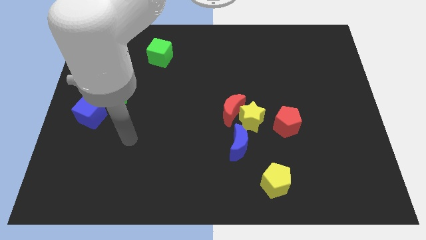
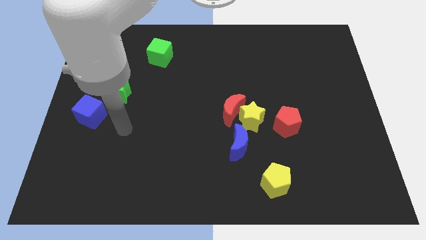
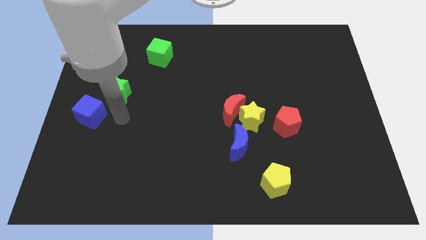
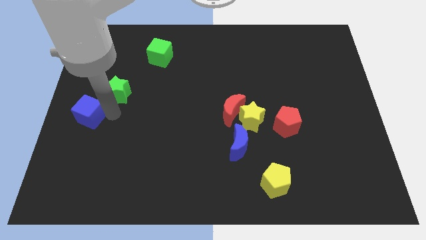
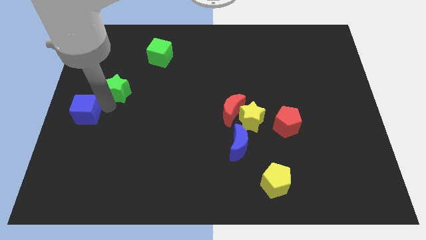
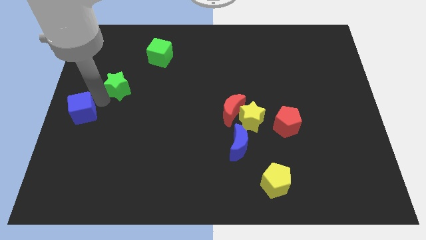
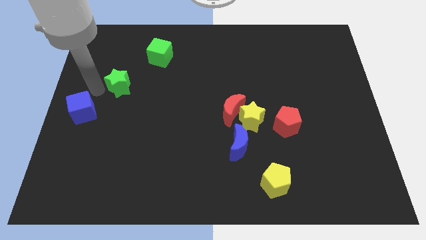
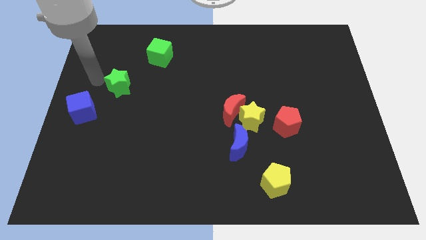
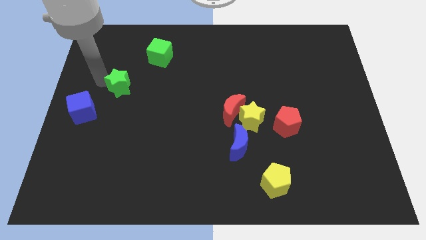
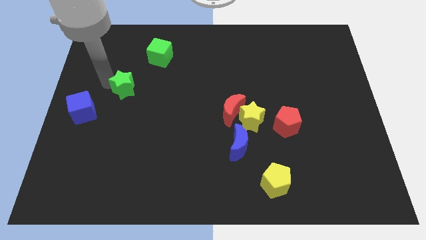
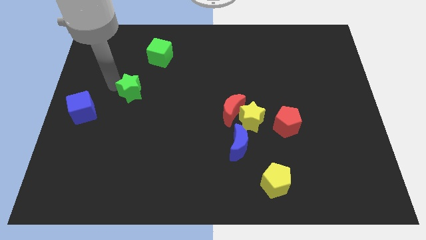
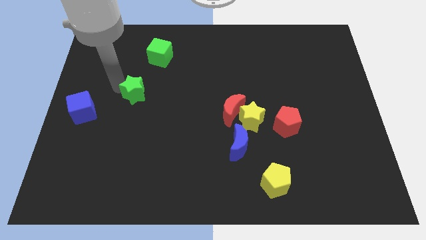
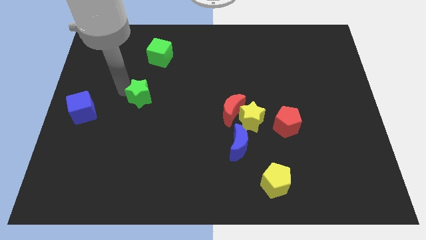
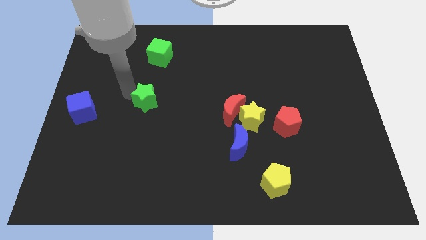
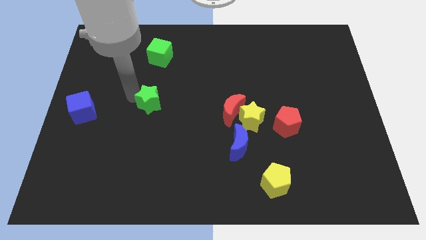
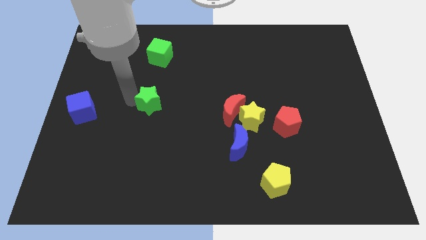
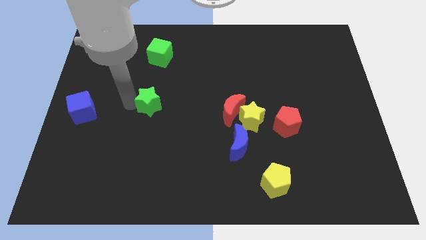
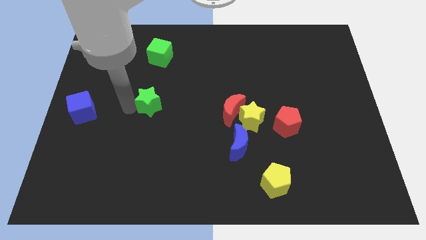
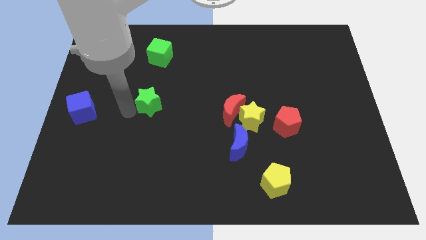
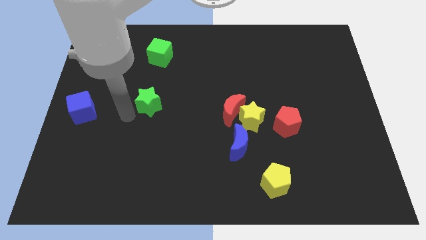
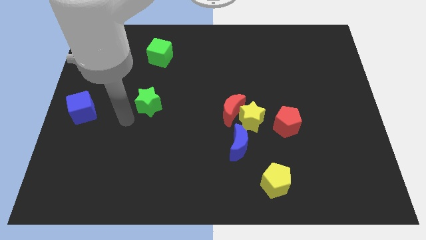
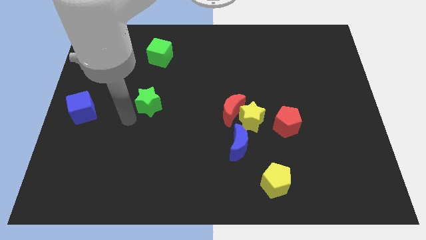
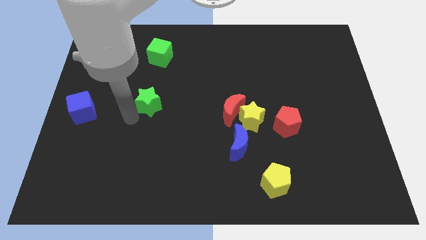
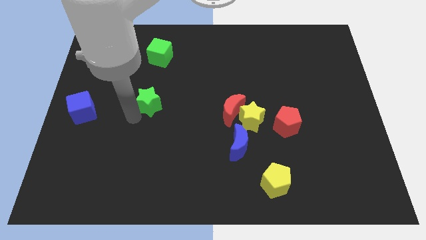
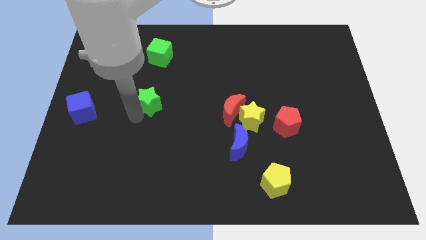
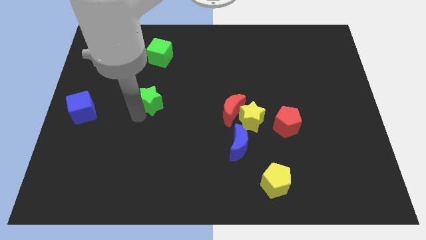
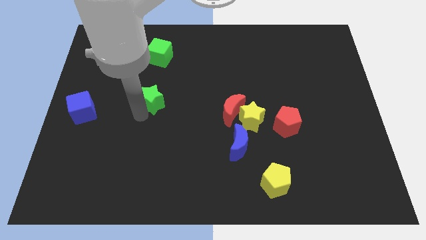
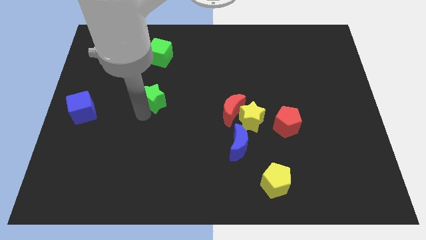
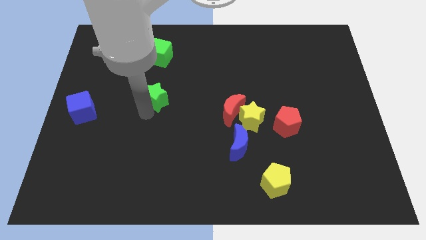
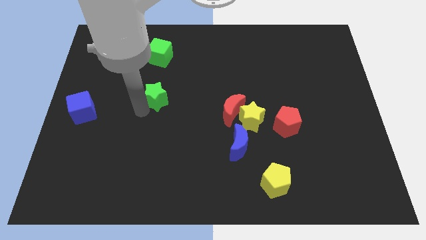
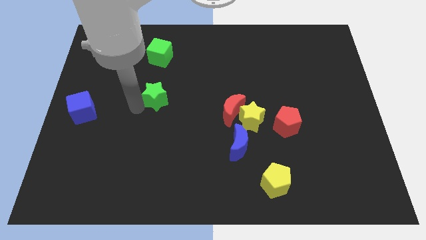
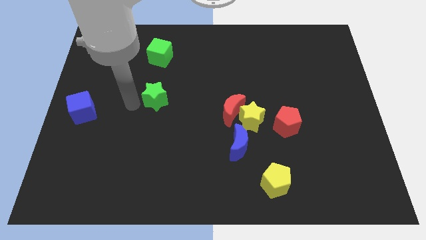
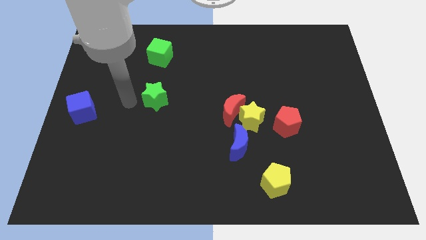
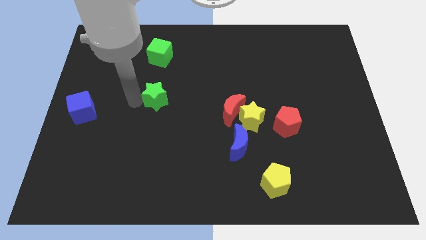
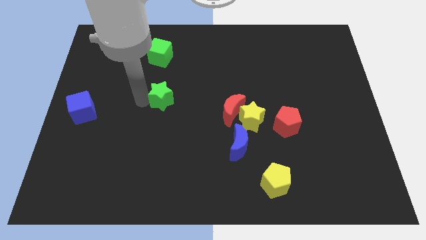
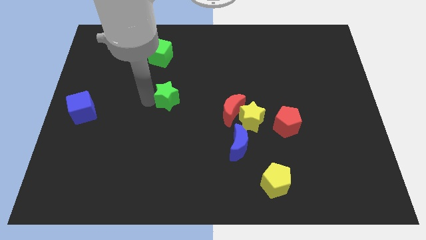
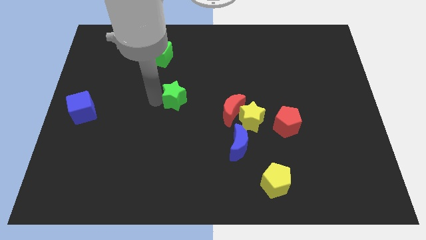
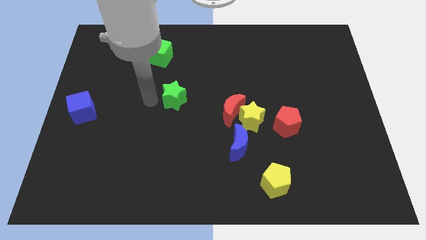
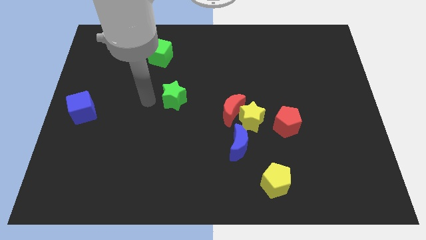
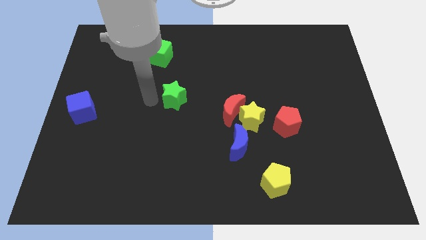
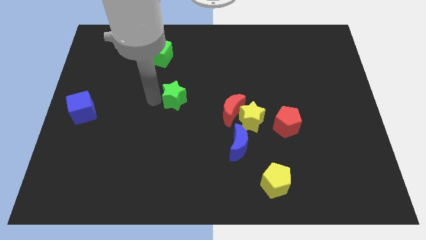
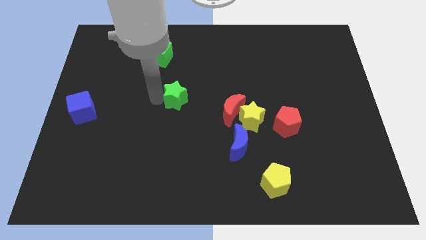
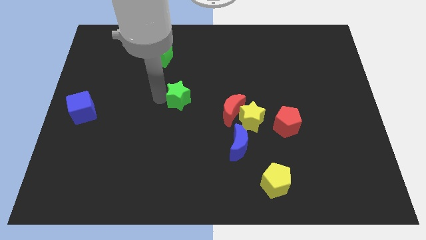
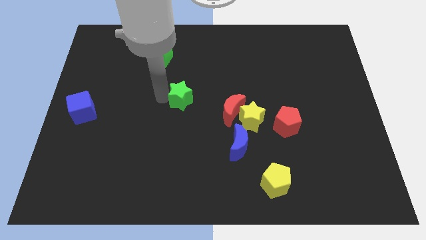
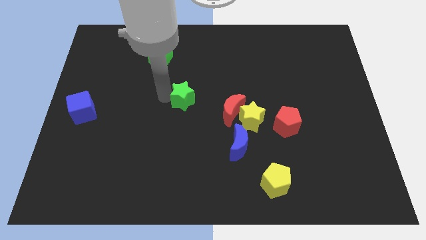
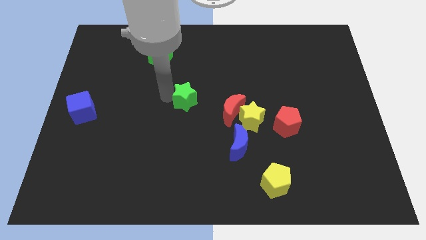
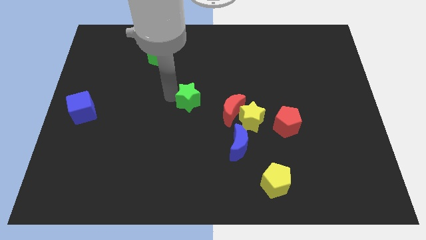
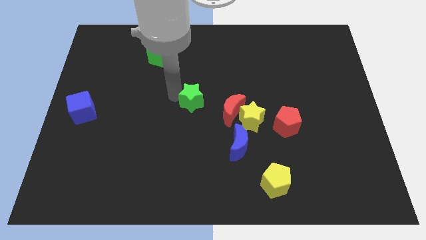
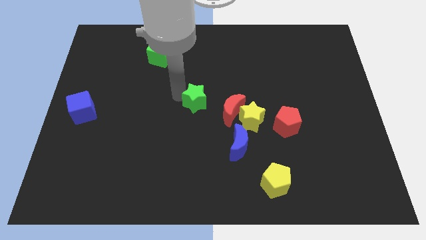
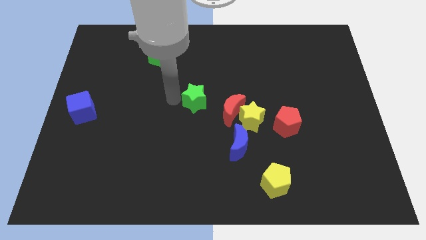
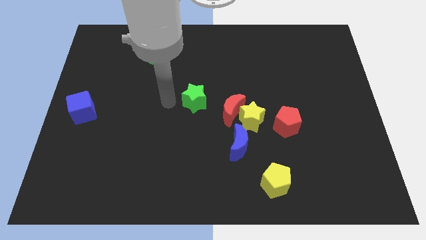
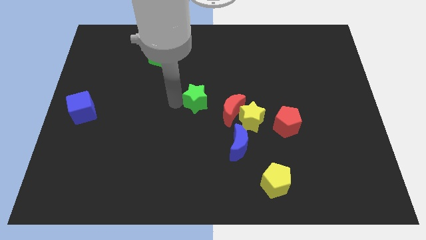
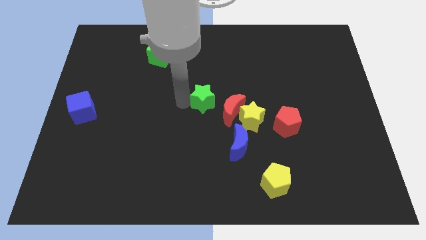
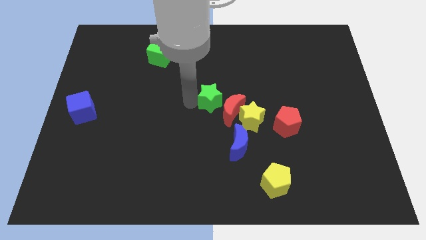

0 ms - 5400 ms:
push the green star diagonally up and to the left of the yellow star

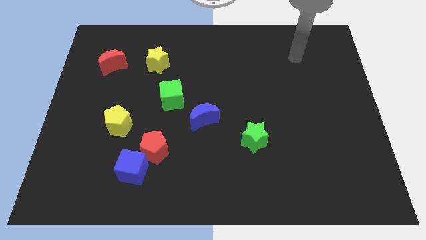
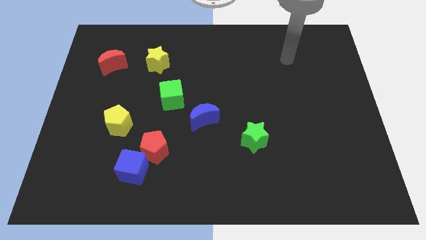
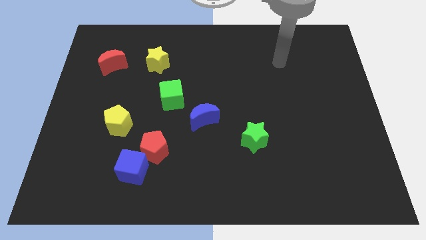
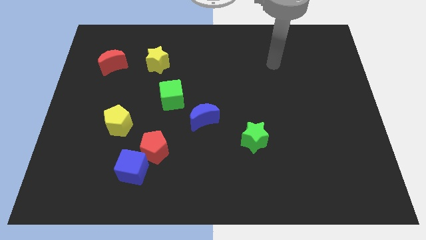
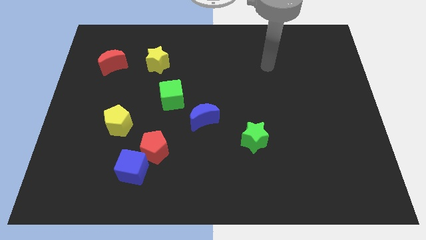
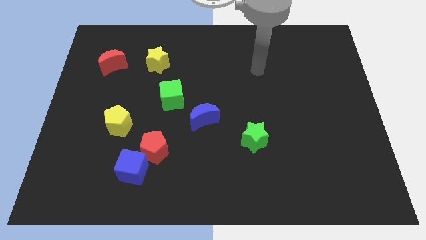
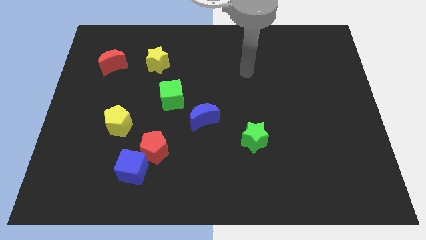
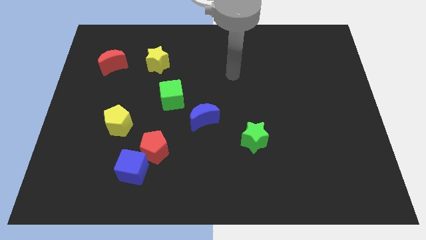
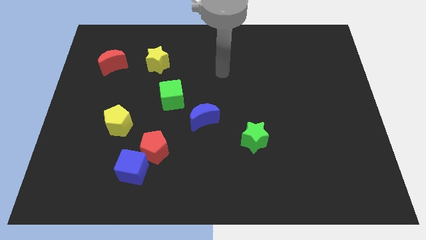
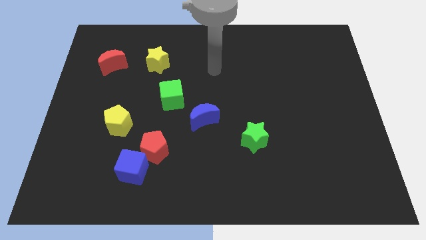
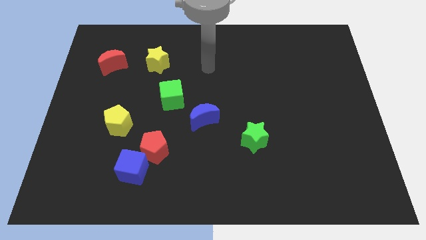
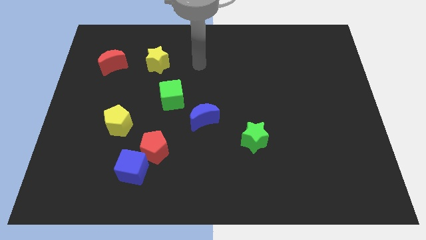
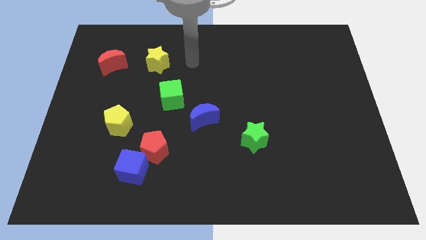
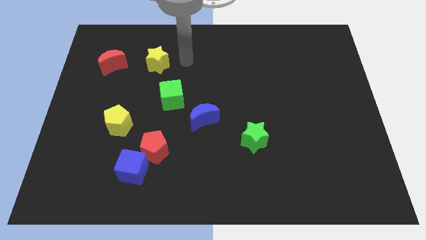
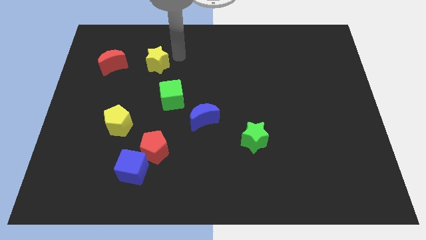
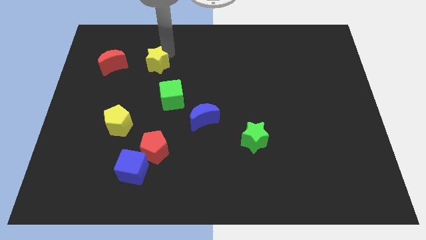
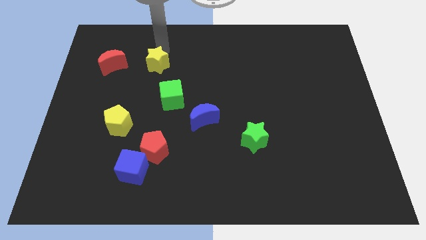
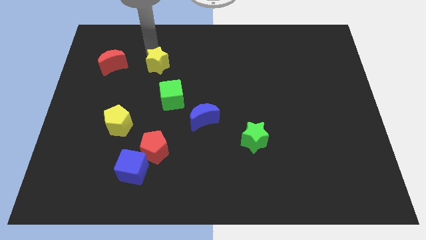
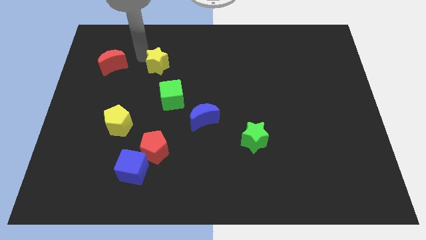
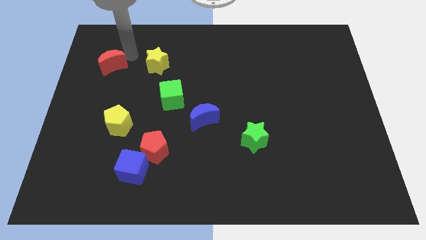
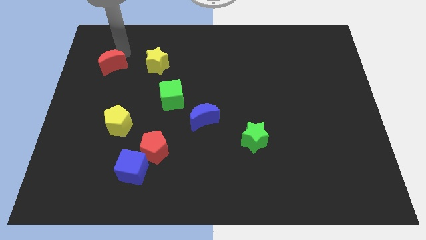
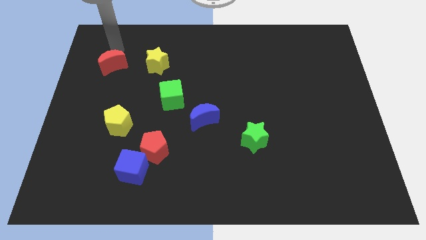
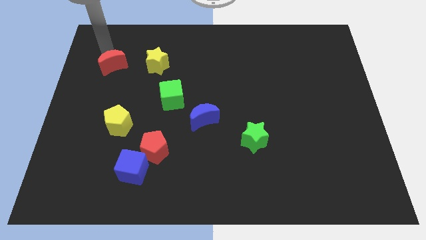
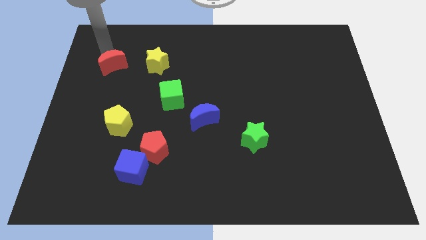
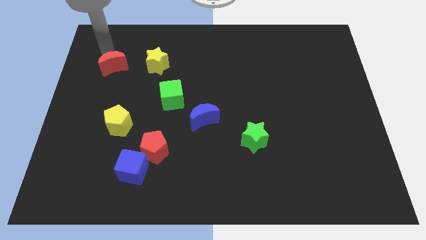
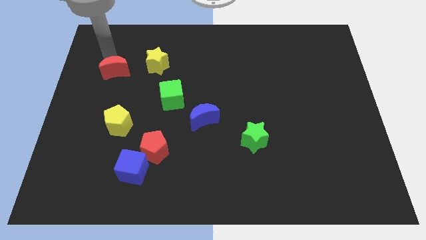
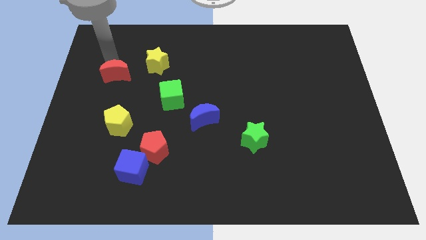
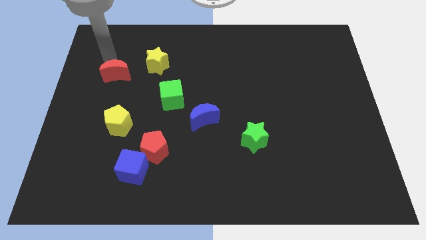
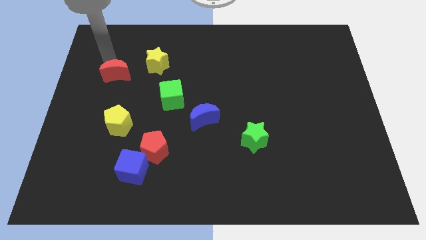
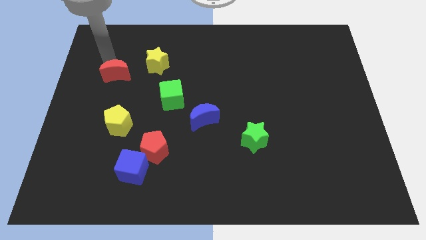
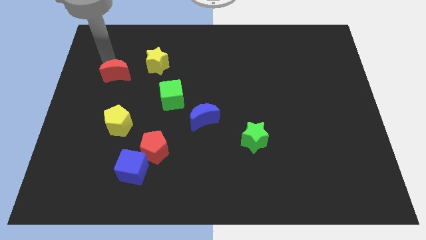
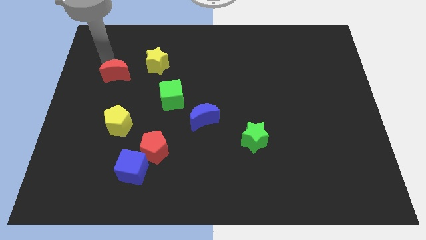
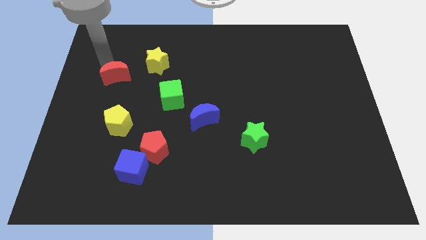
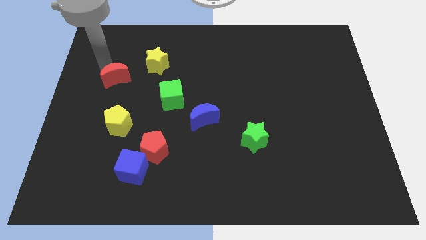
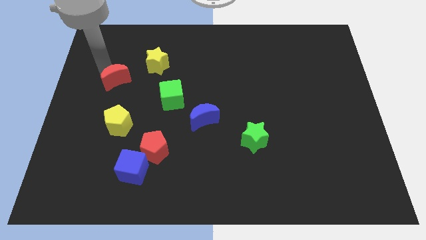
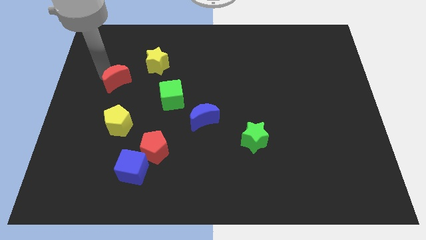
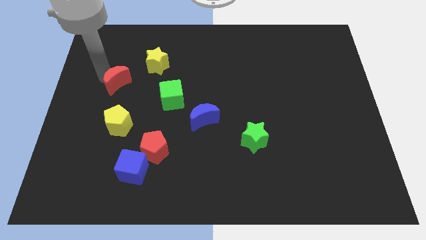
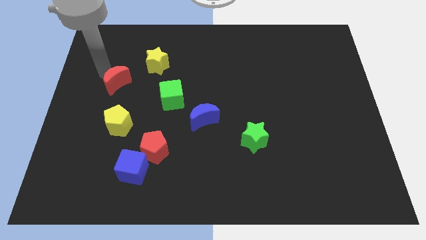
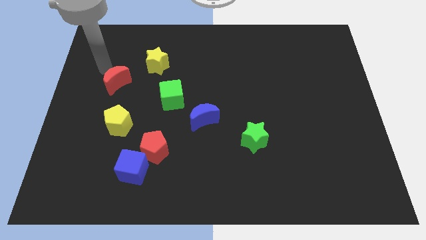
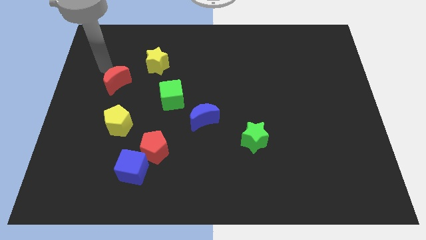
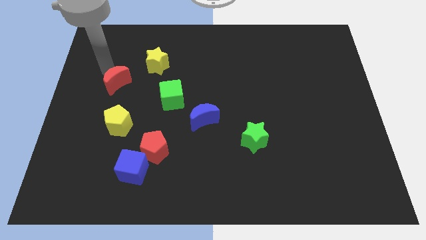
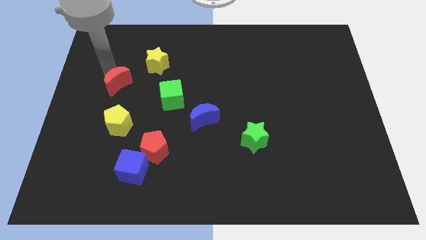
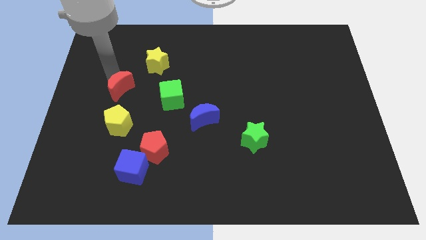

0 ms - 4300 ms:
move the red moon left of the green cube
